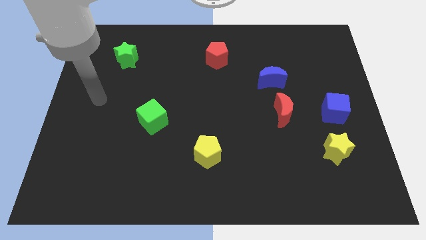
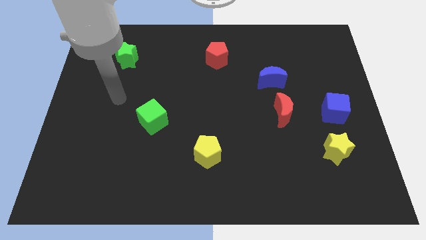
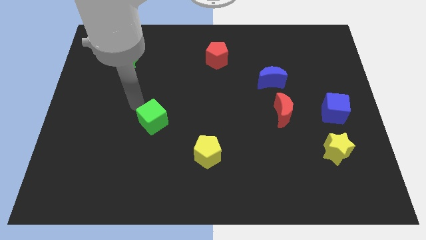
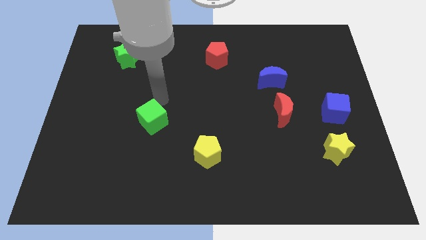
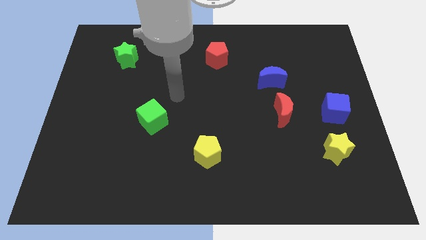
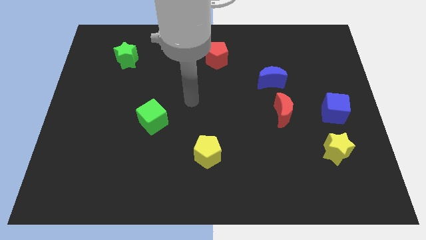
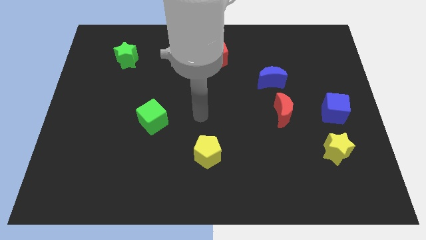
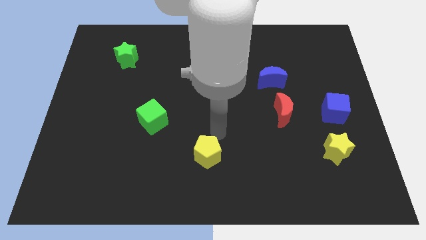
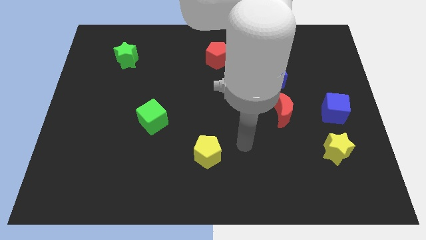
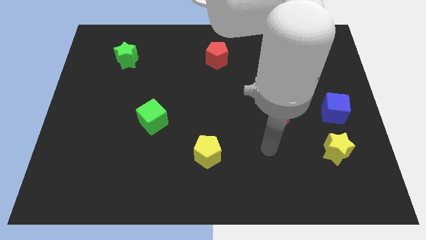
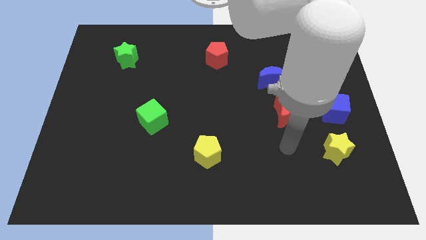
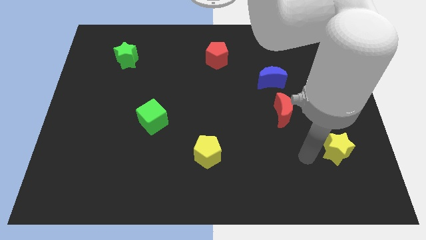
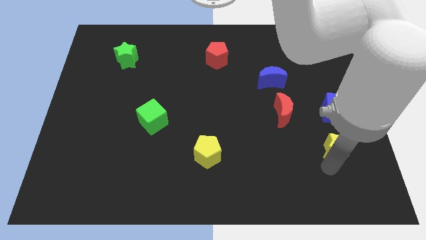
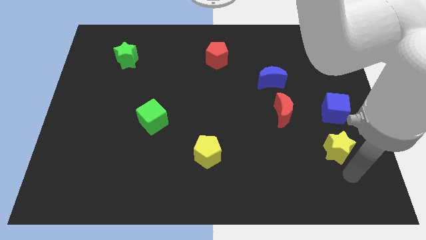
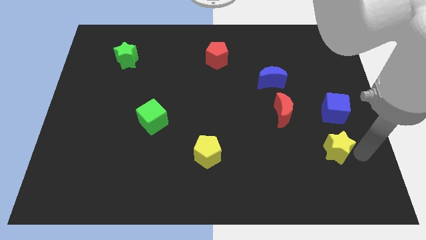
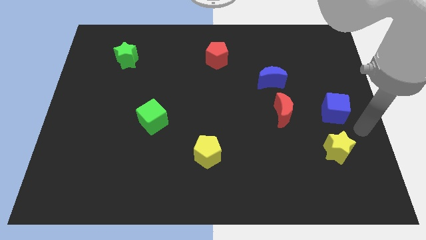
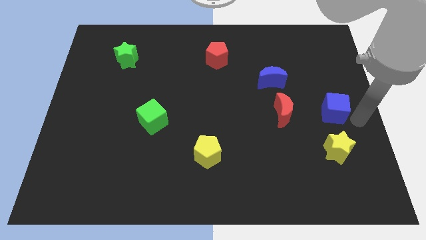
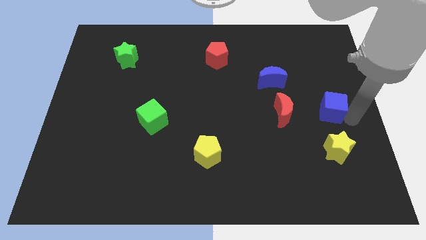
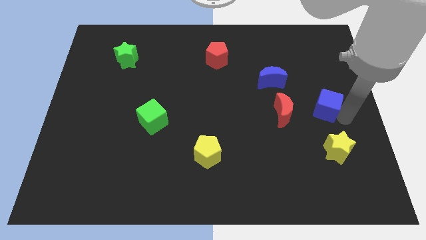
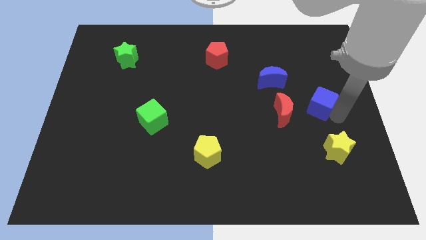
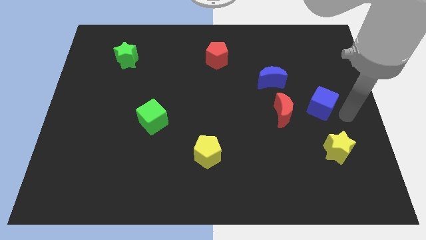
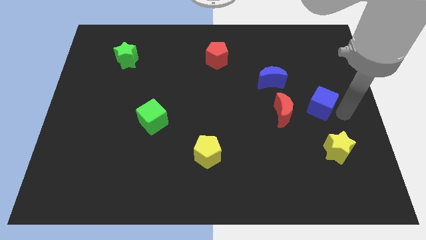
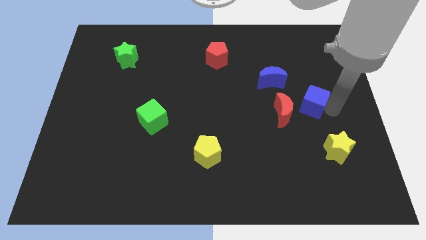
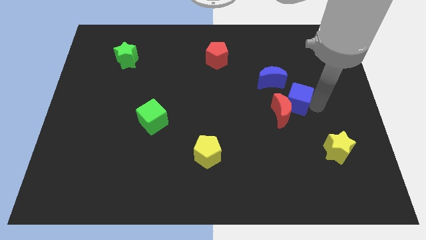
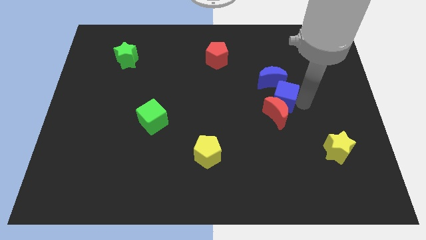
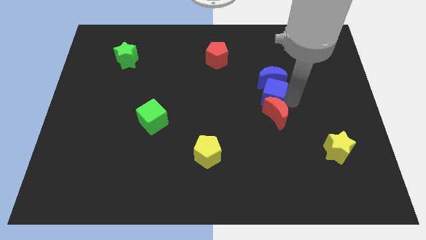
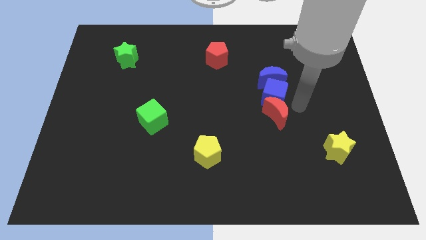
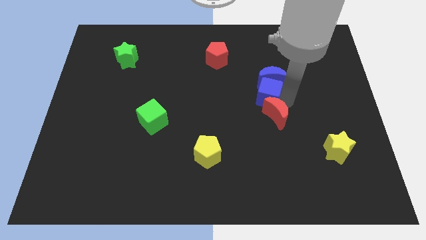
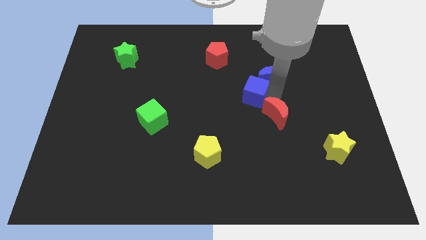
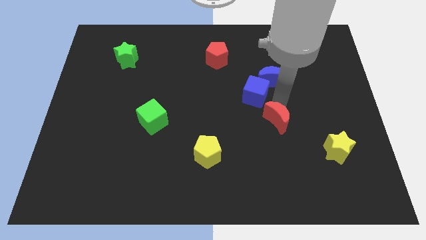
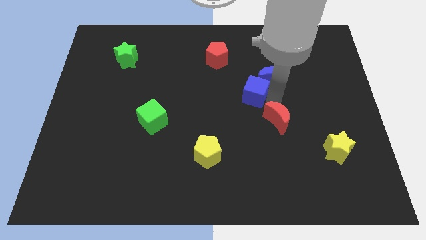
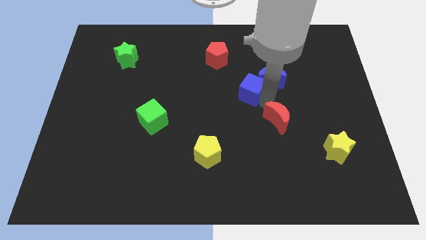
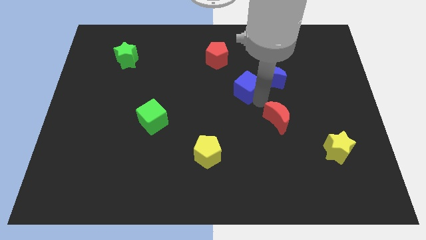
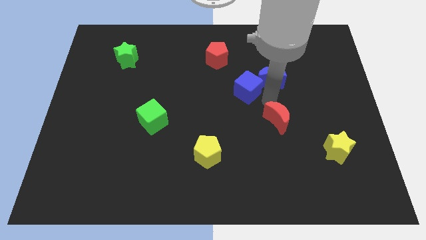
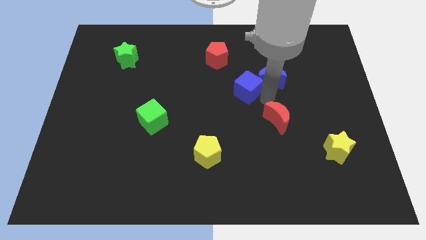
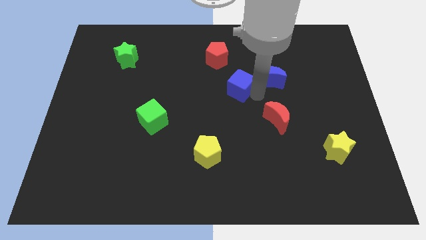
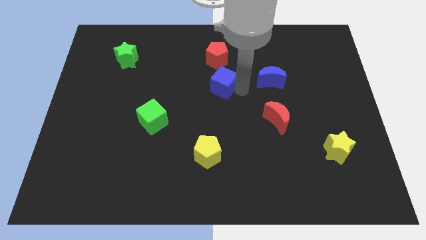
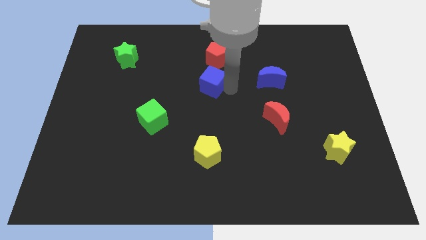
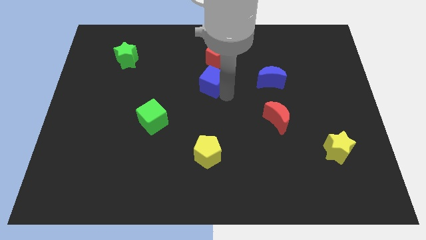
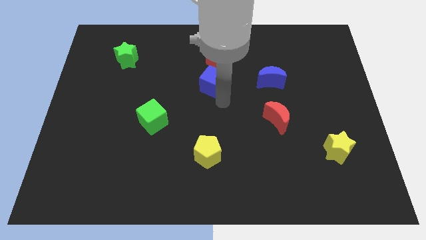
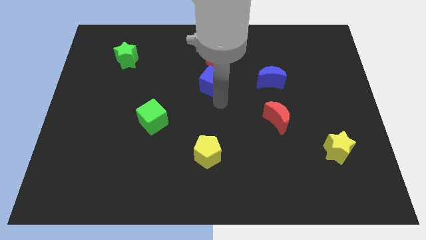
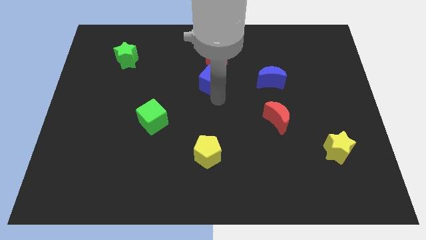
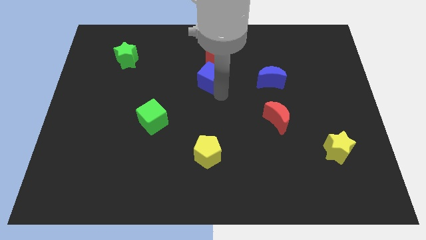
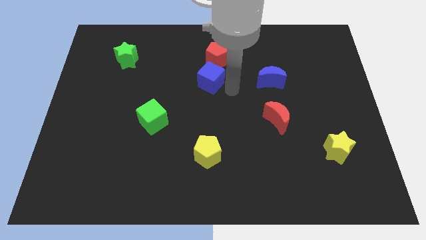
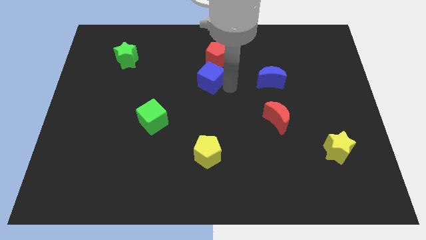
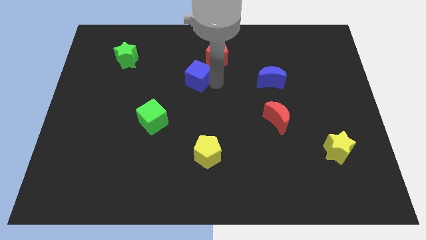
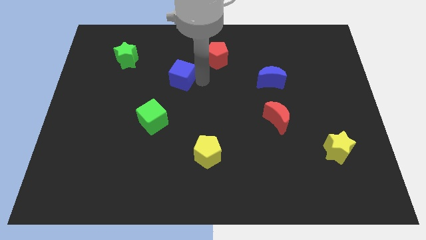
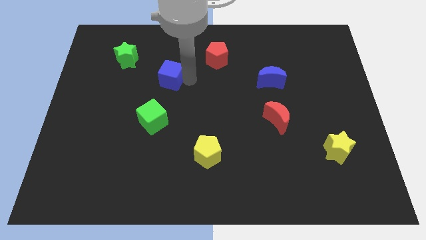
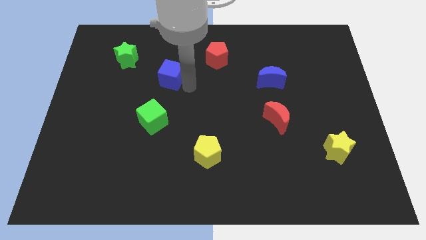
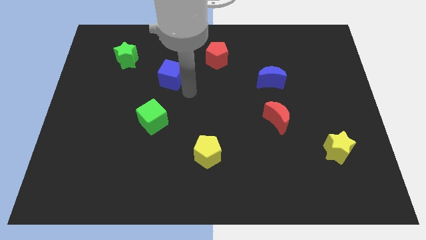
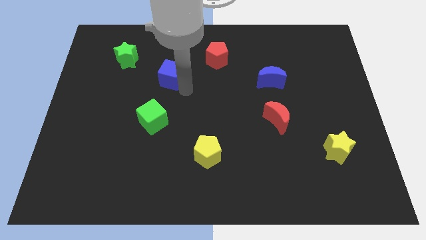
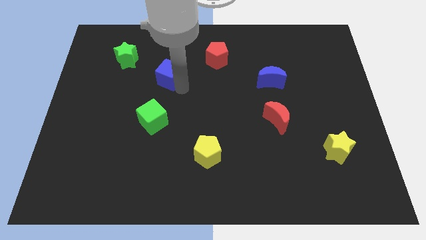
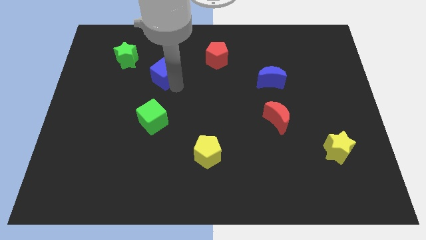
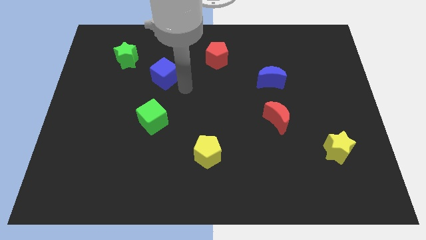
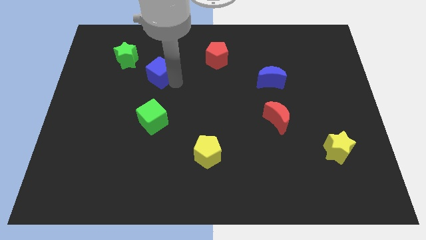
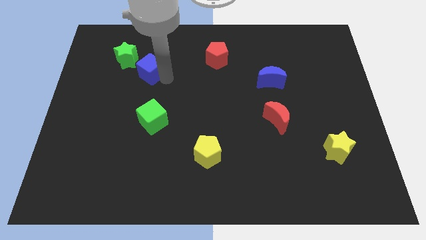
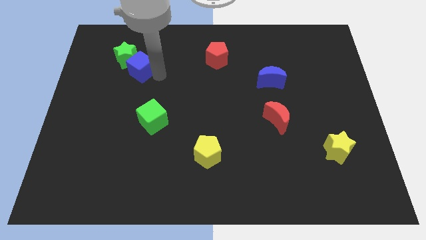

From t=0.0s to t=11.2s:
push the blue cube close to the green star
